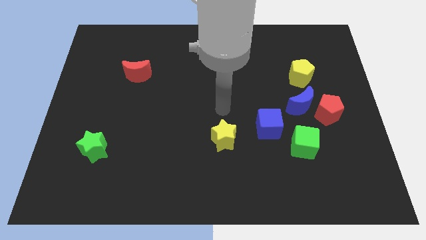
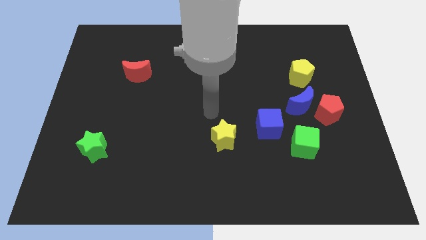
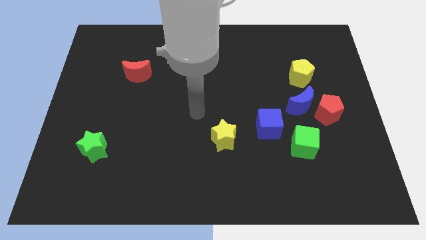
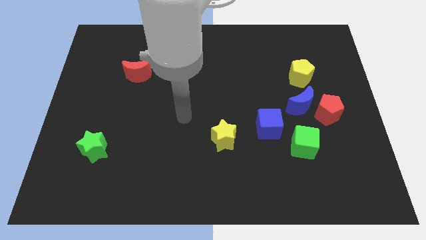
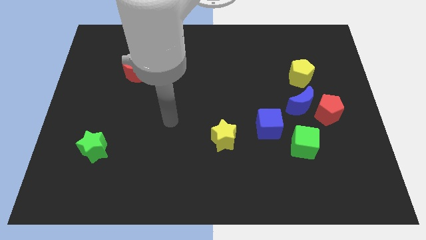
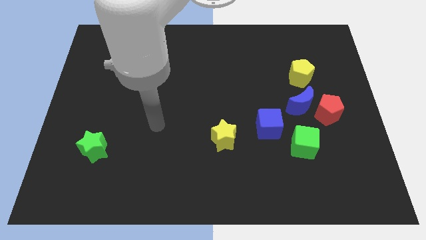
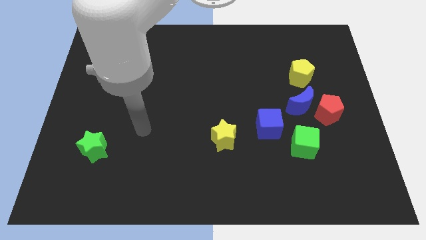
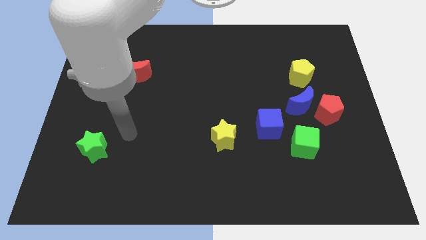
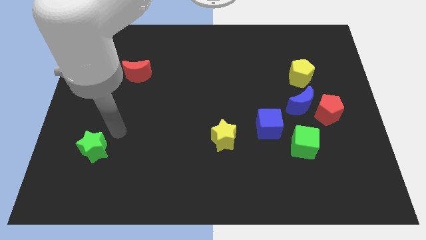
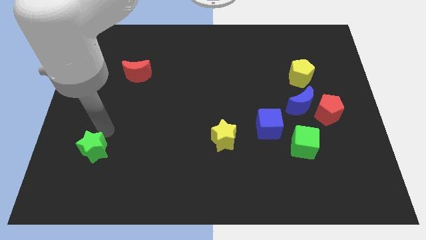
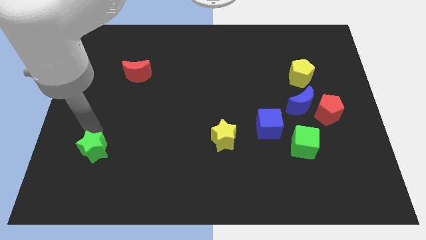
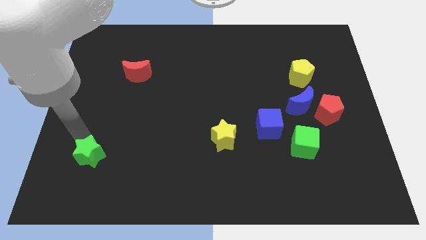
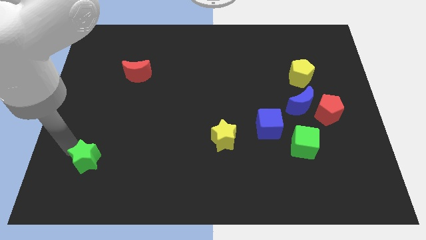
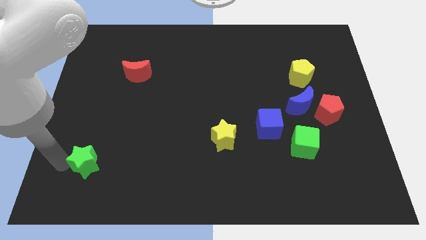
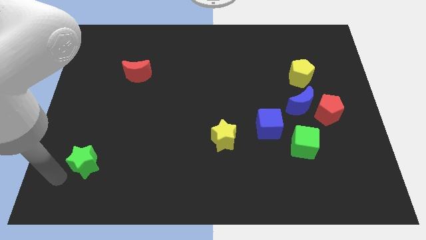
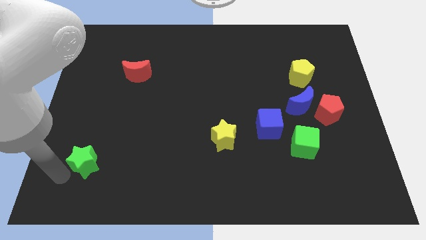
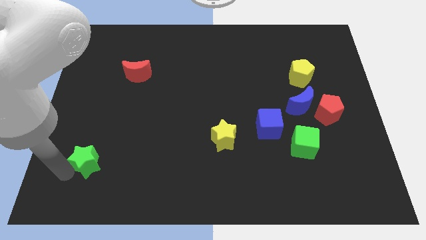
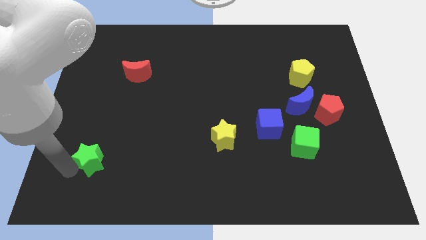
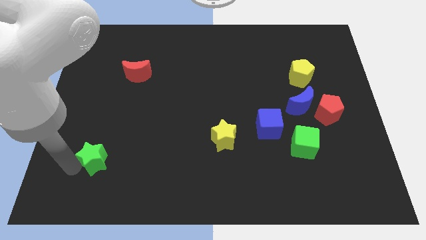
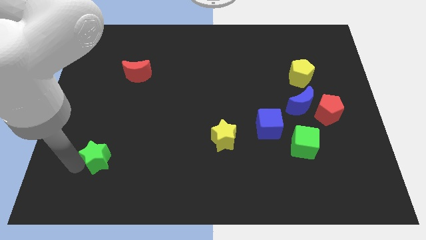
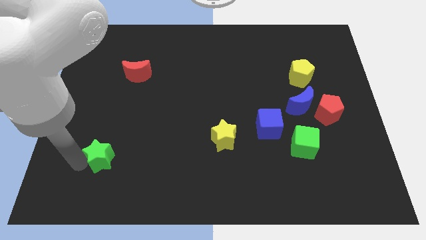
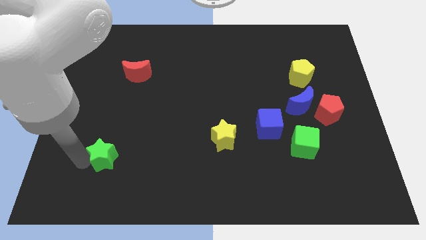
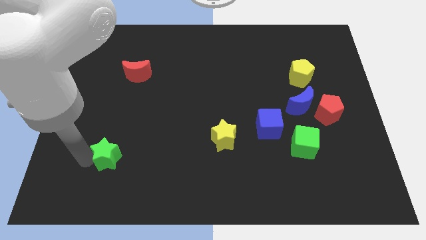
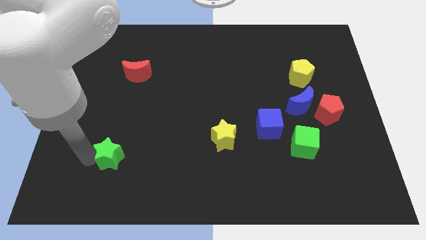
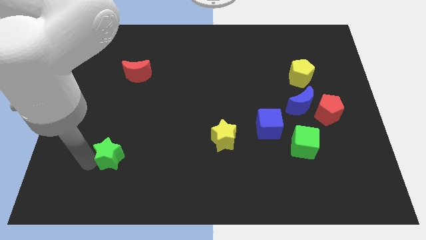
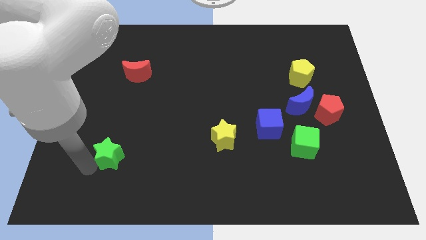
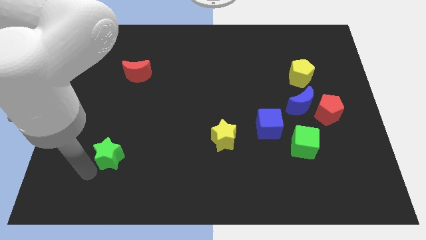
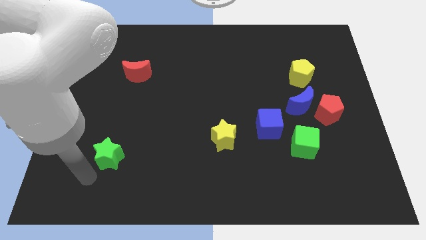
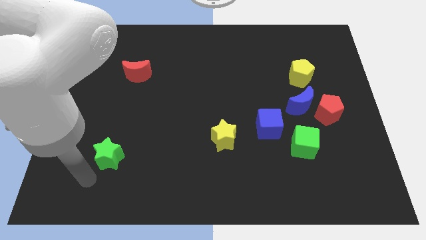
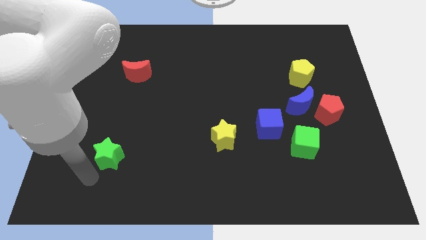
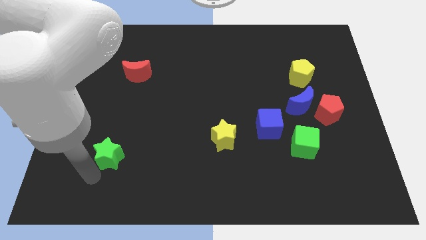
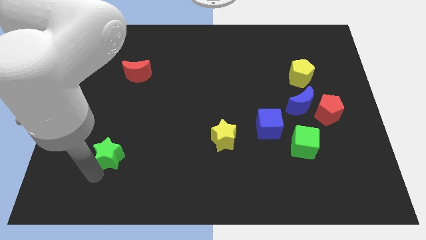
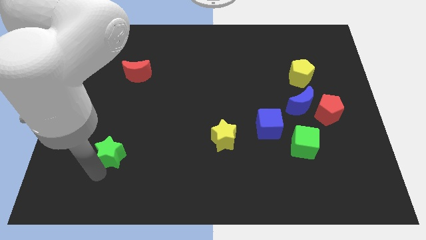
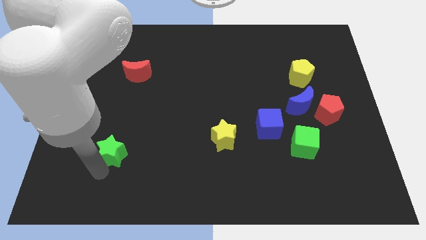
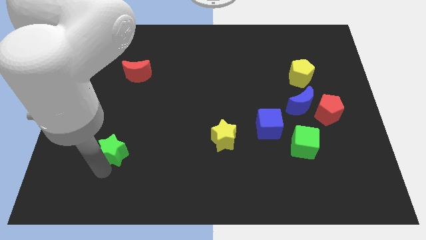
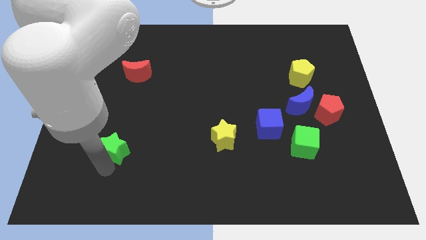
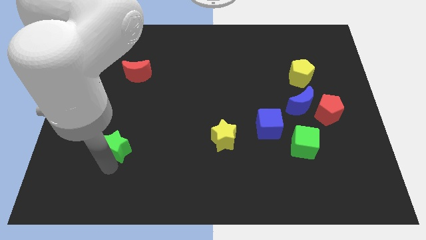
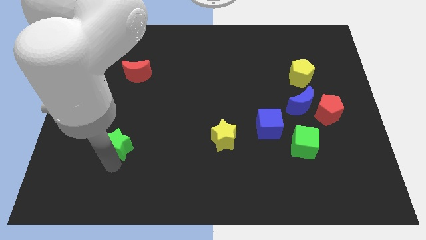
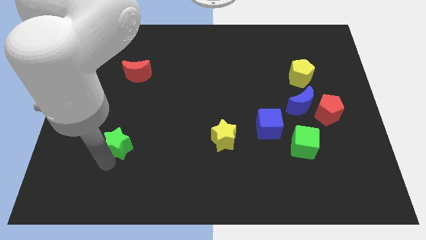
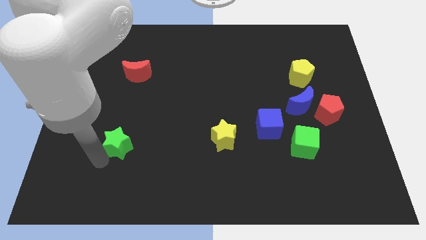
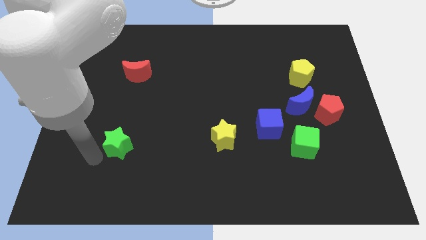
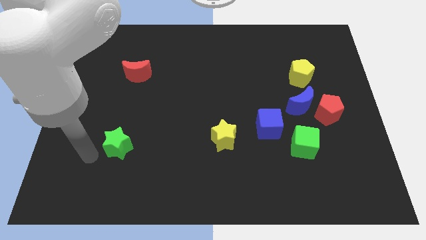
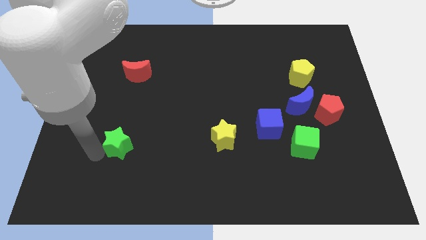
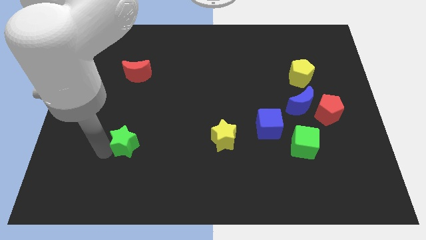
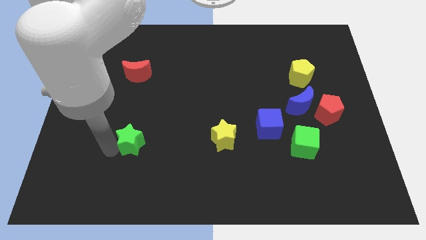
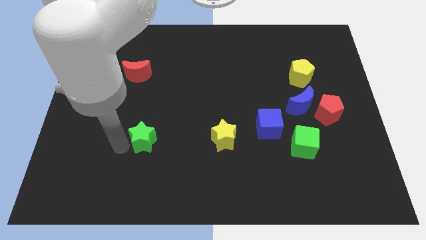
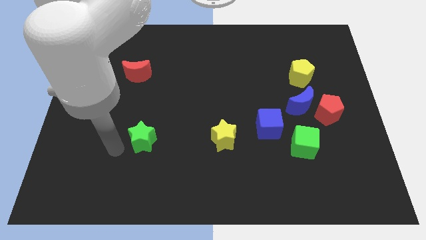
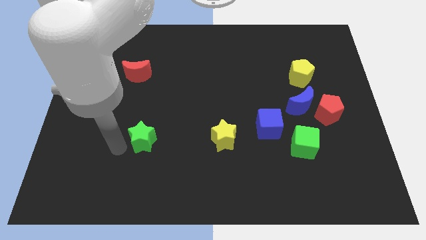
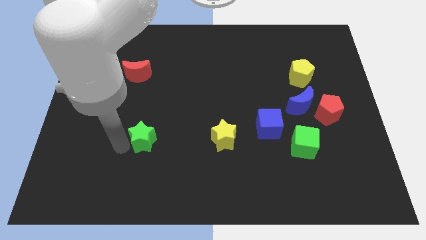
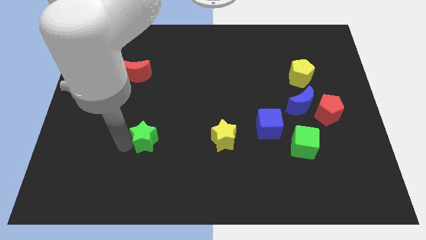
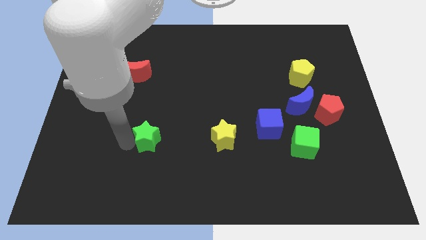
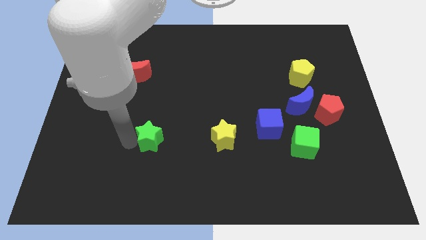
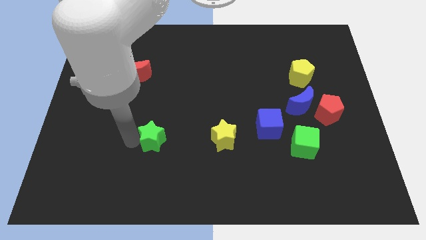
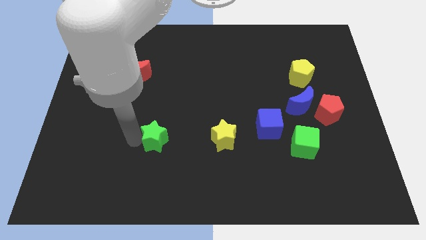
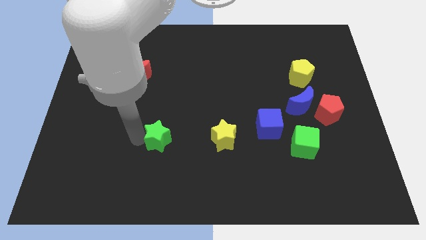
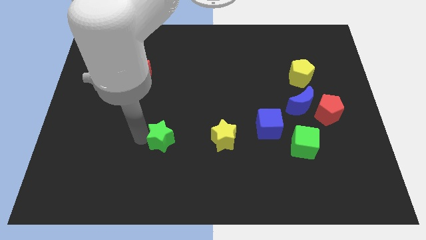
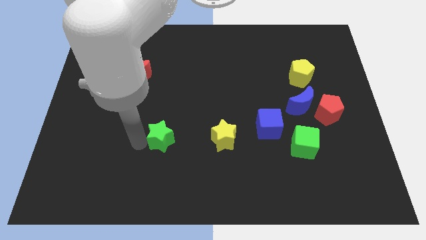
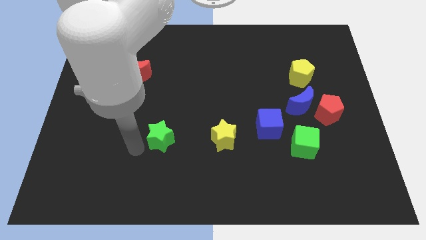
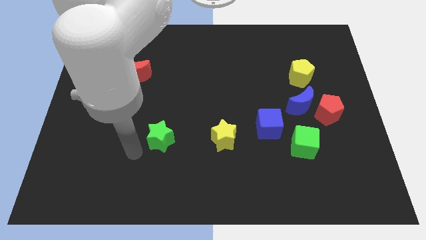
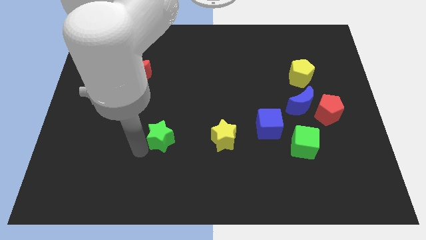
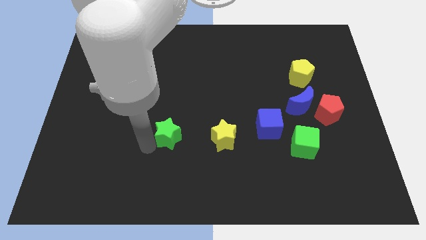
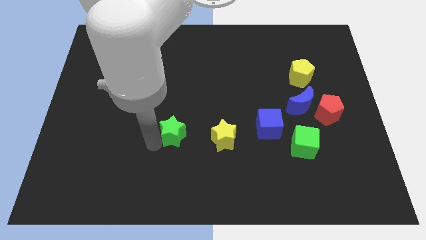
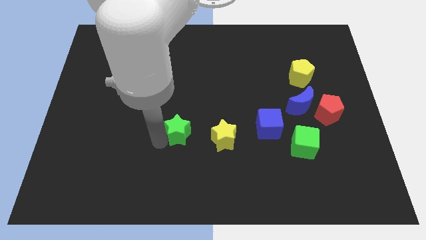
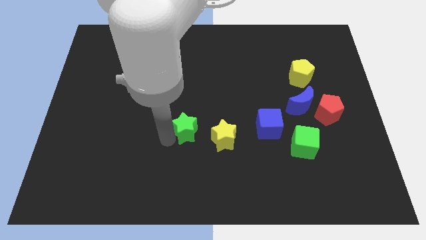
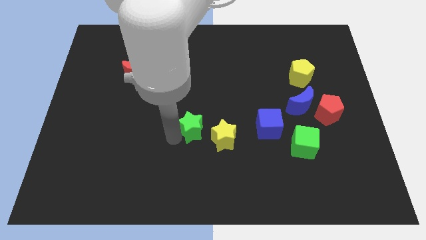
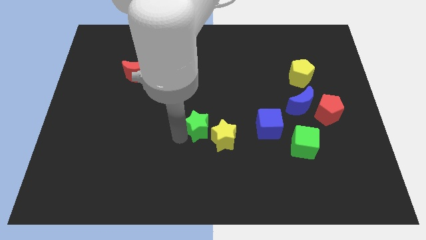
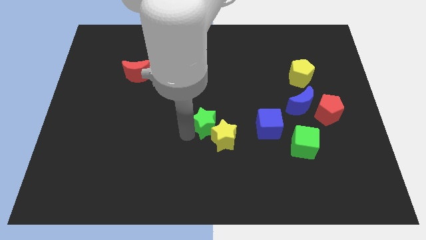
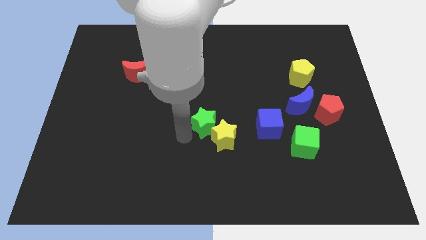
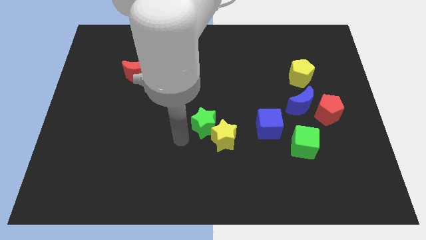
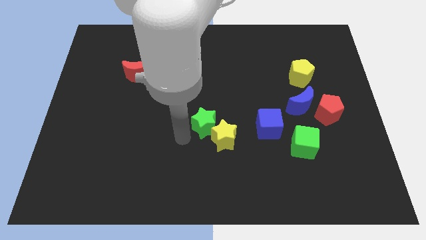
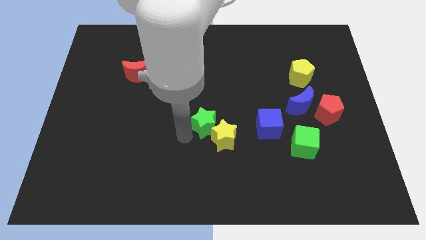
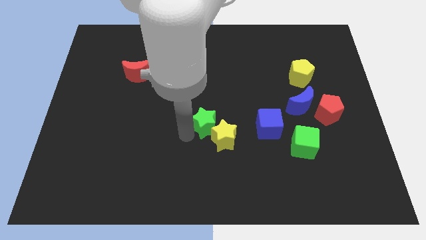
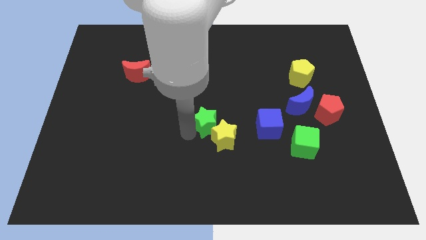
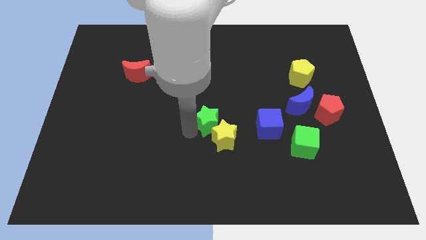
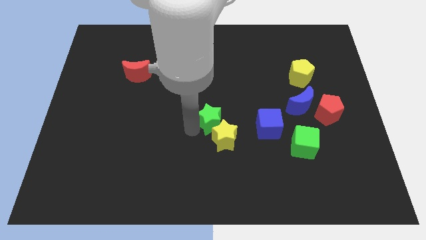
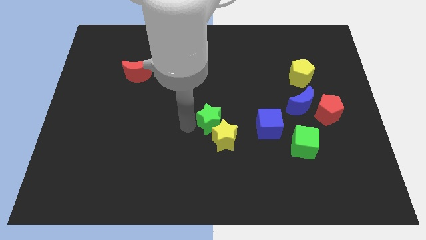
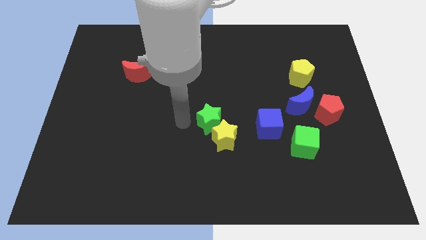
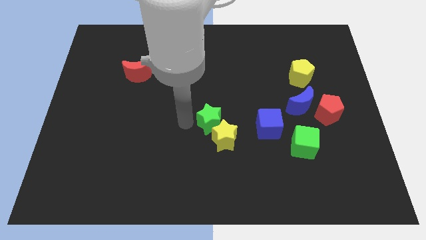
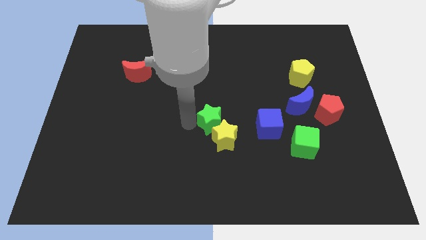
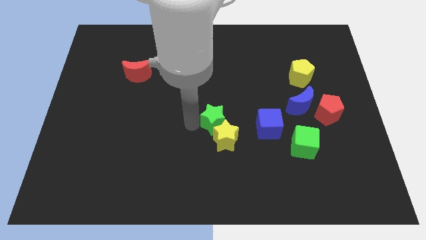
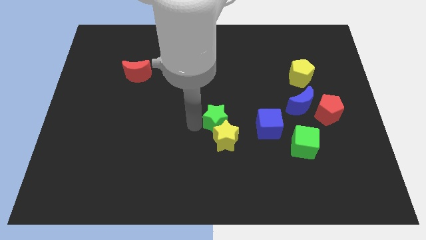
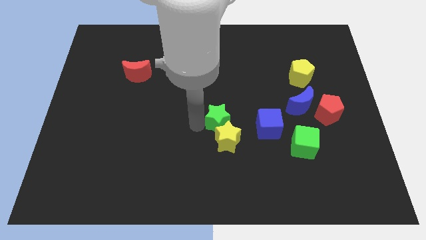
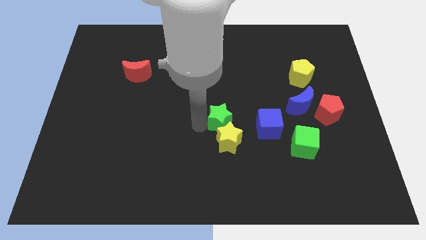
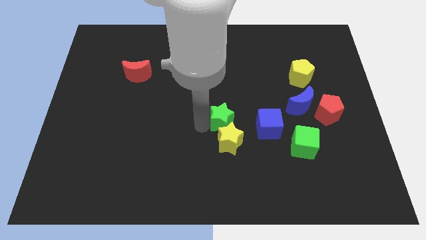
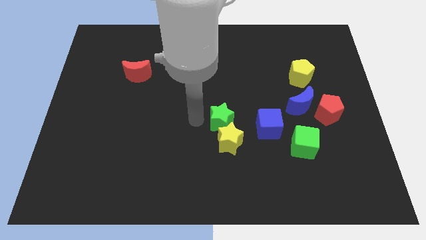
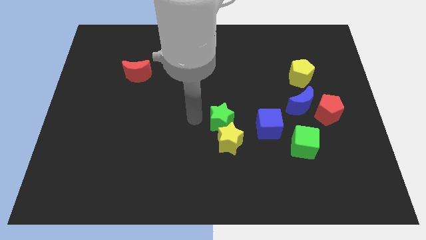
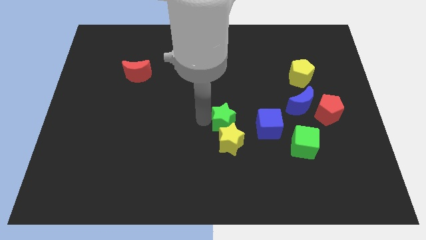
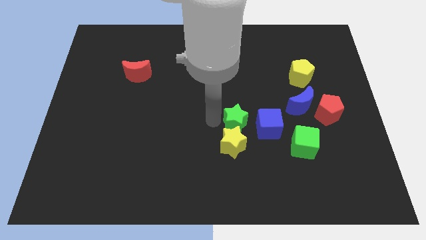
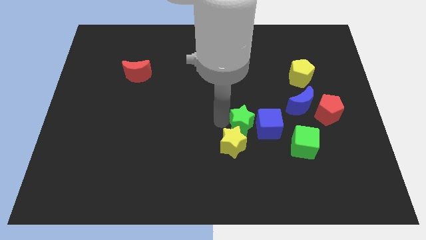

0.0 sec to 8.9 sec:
move the green star to the blue cube
